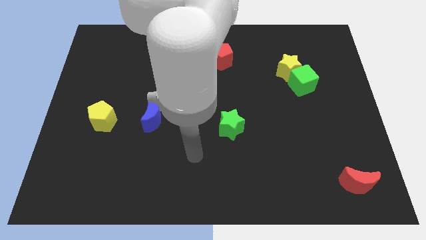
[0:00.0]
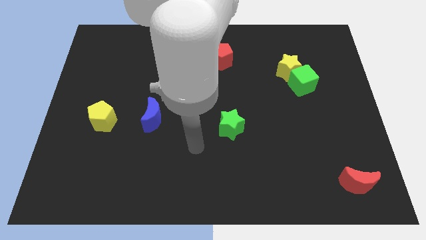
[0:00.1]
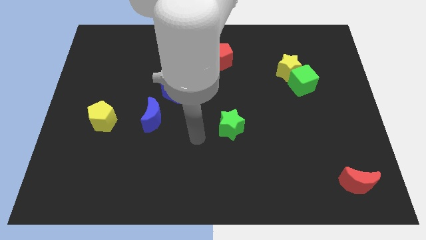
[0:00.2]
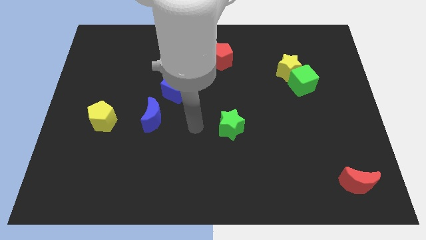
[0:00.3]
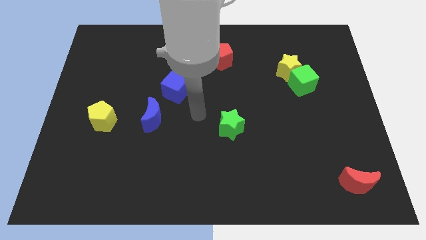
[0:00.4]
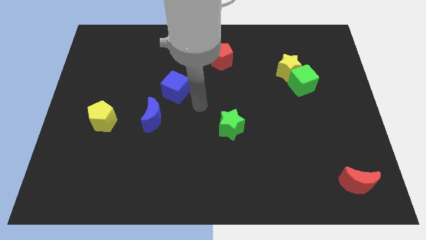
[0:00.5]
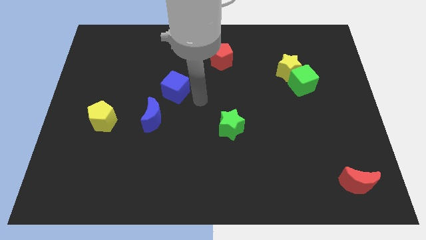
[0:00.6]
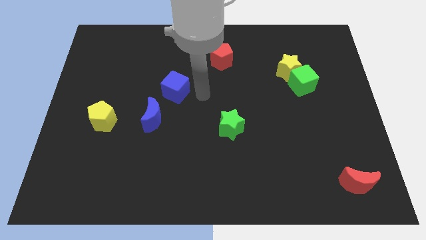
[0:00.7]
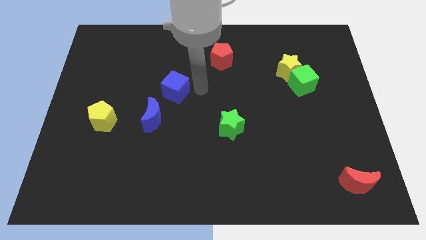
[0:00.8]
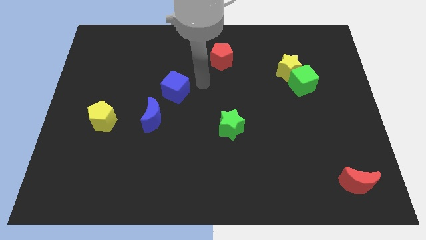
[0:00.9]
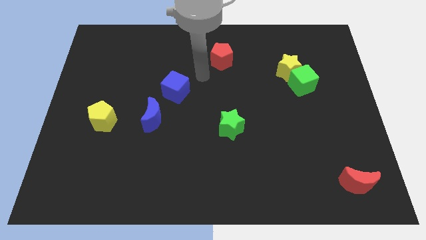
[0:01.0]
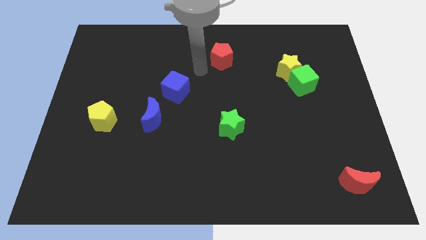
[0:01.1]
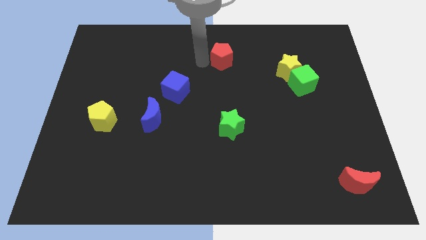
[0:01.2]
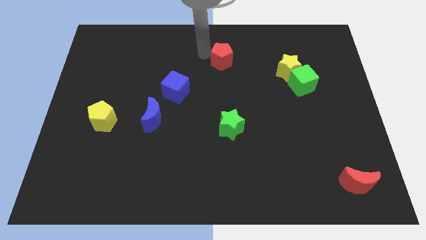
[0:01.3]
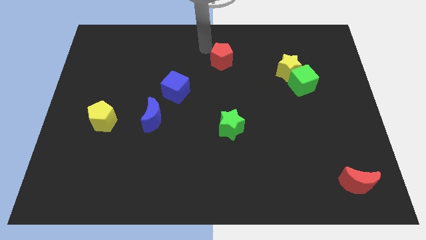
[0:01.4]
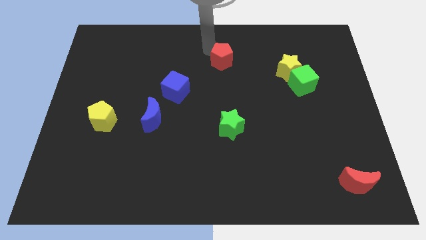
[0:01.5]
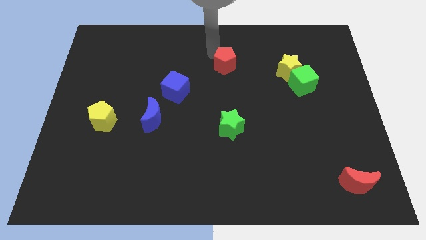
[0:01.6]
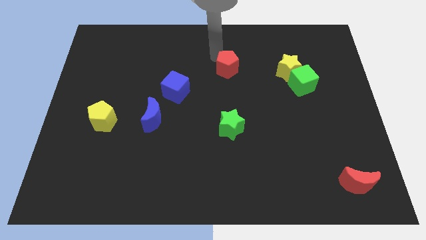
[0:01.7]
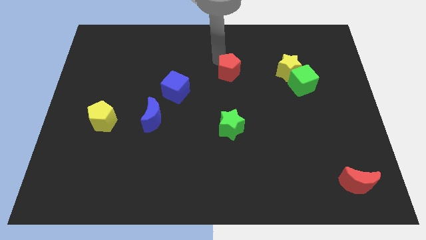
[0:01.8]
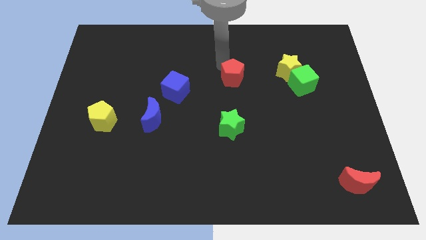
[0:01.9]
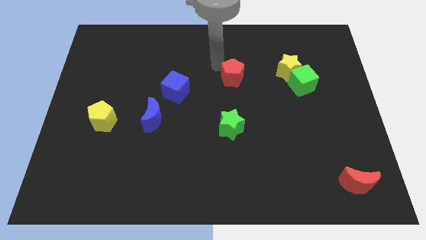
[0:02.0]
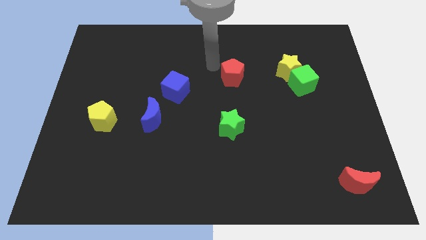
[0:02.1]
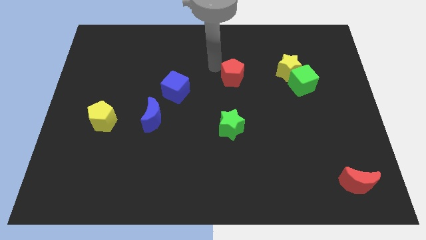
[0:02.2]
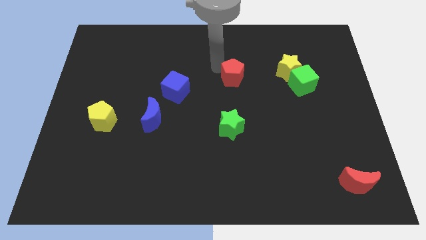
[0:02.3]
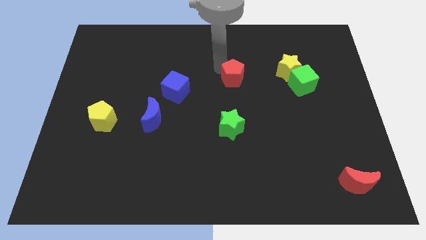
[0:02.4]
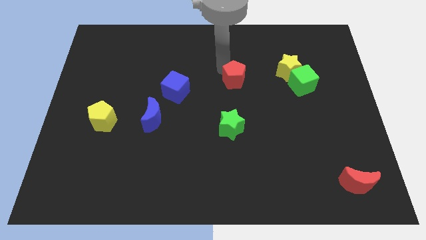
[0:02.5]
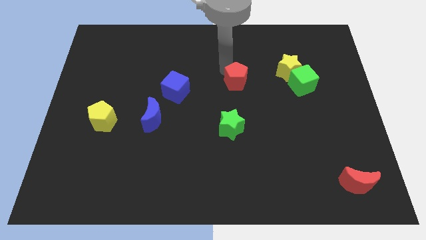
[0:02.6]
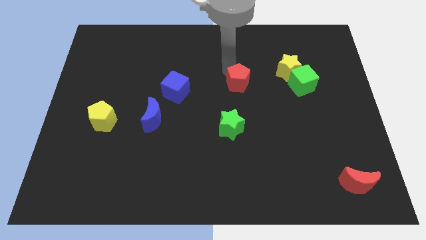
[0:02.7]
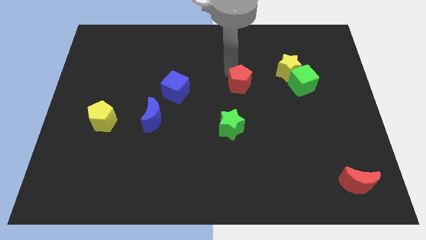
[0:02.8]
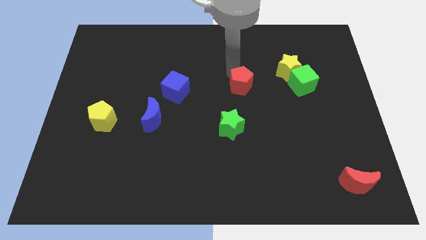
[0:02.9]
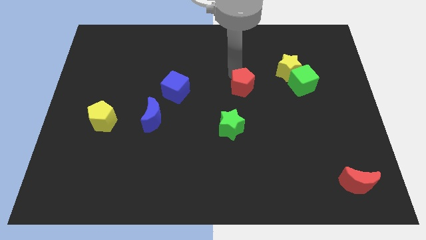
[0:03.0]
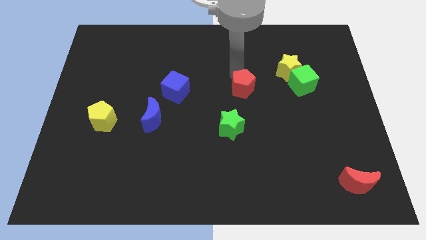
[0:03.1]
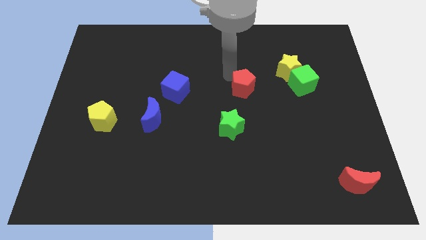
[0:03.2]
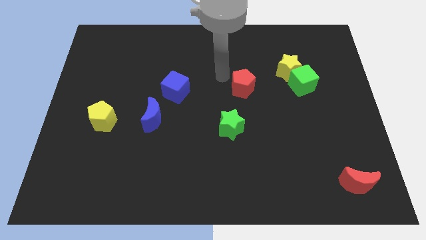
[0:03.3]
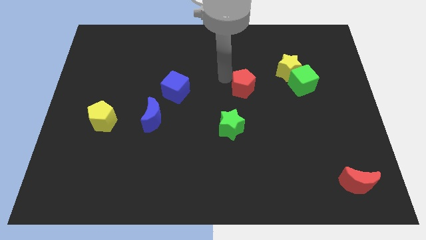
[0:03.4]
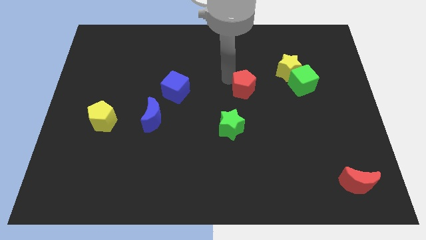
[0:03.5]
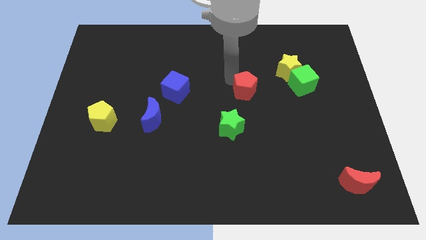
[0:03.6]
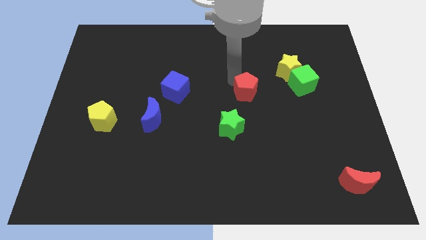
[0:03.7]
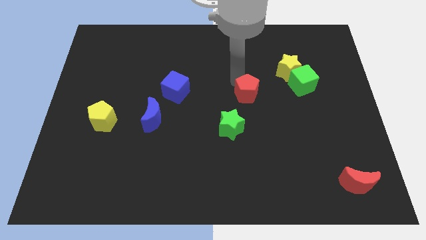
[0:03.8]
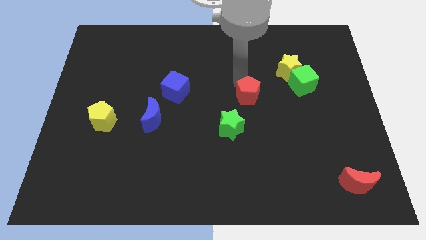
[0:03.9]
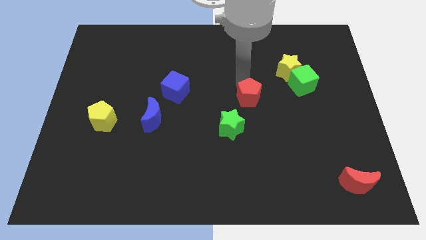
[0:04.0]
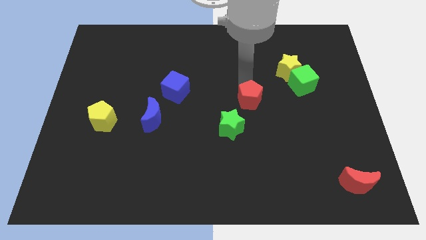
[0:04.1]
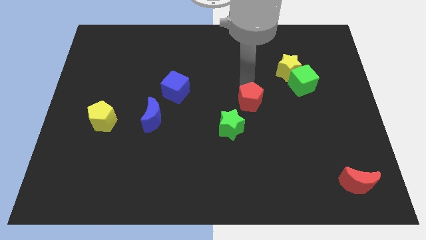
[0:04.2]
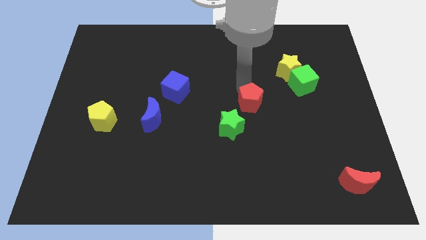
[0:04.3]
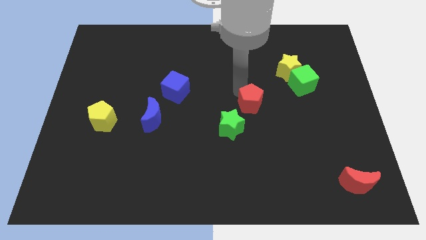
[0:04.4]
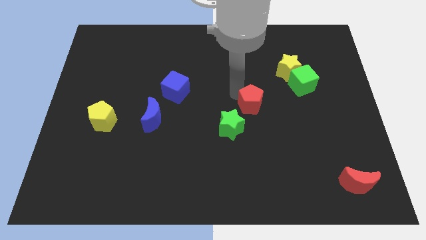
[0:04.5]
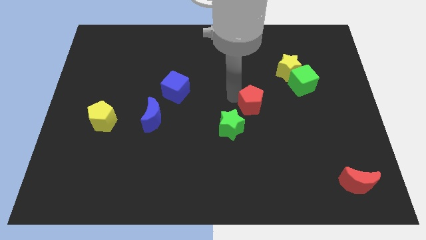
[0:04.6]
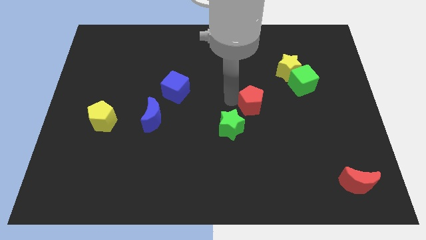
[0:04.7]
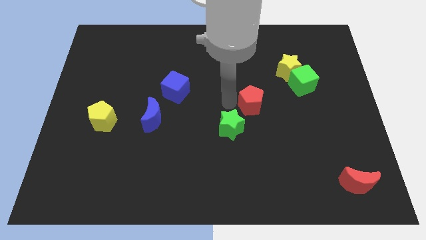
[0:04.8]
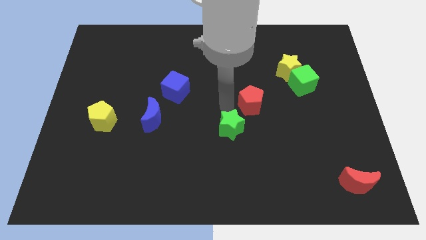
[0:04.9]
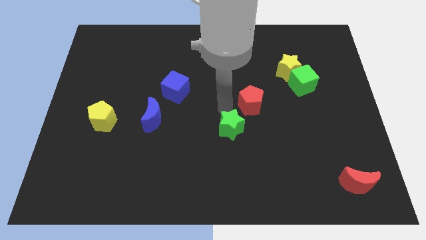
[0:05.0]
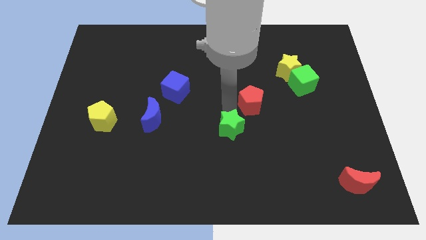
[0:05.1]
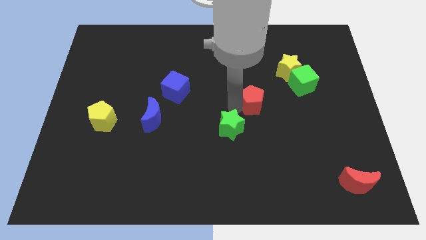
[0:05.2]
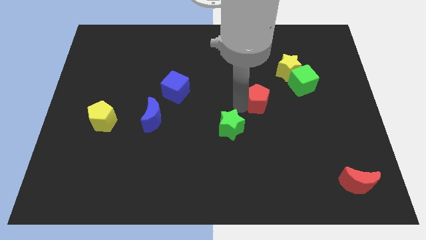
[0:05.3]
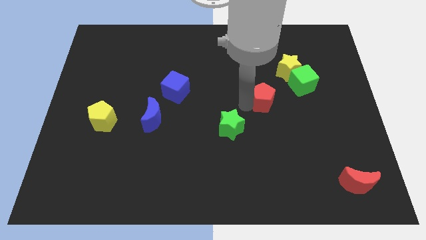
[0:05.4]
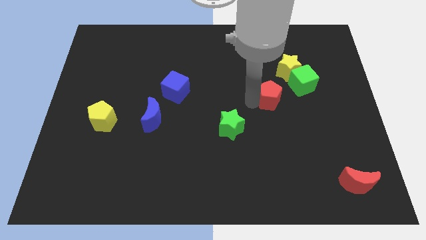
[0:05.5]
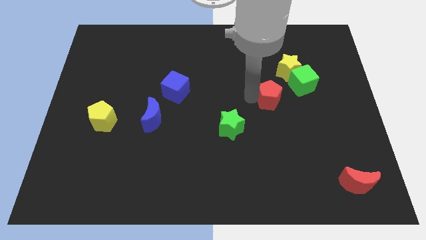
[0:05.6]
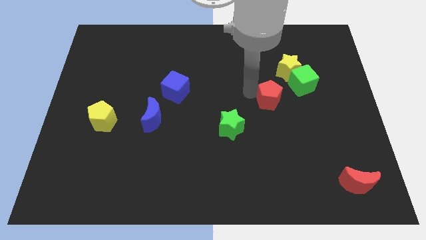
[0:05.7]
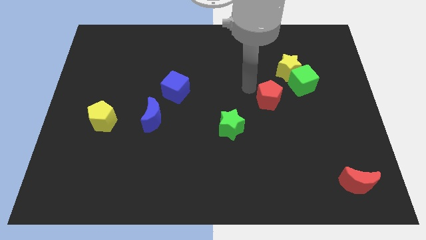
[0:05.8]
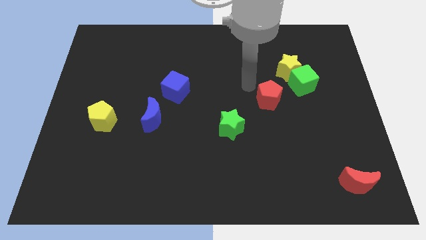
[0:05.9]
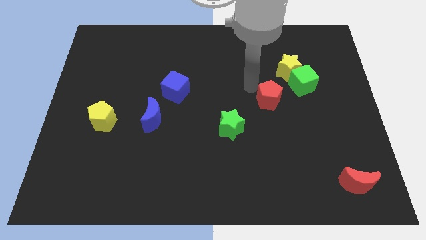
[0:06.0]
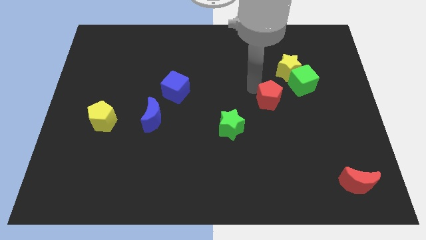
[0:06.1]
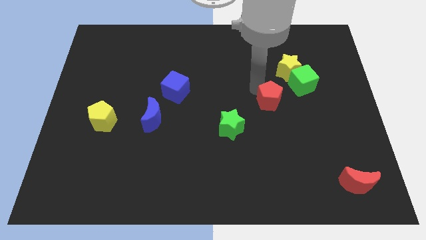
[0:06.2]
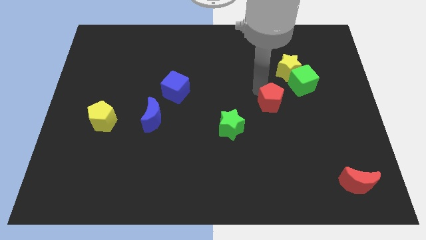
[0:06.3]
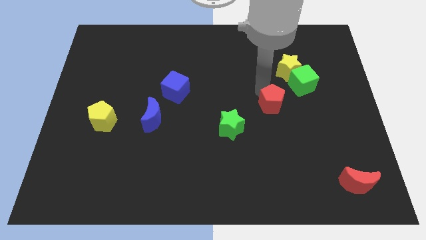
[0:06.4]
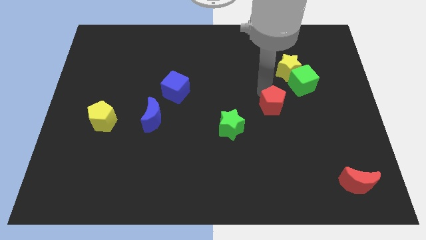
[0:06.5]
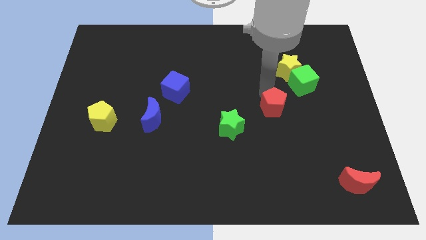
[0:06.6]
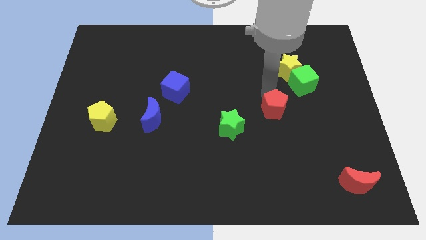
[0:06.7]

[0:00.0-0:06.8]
move the red pentagon diagonally downwards and to the right

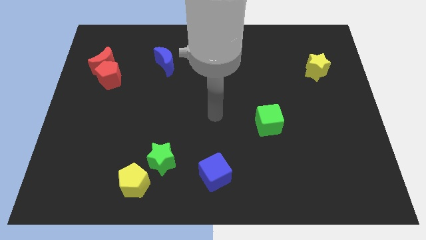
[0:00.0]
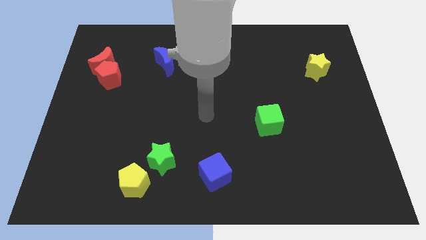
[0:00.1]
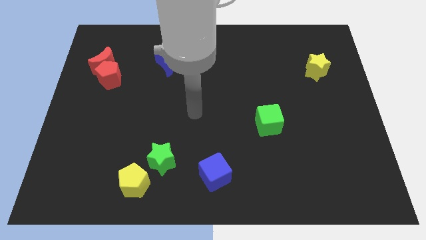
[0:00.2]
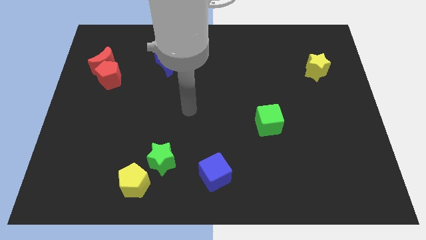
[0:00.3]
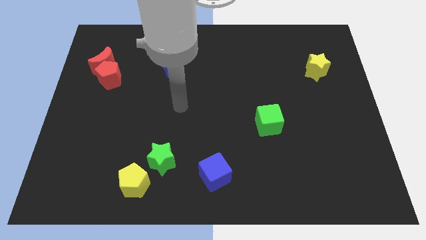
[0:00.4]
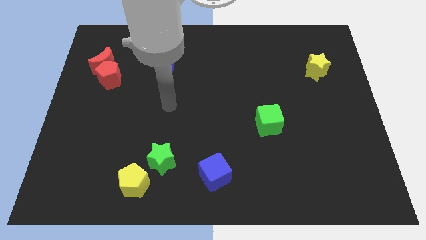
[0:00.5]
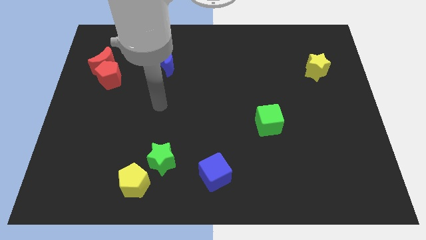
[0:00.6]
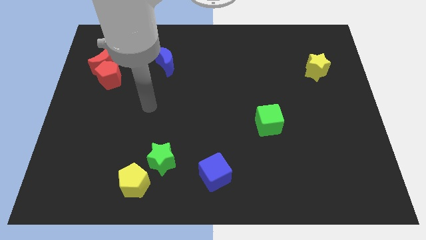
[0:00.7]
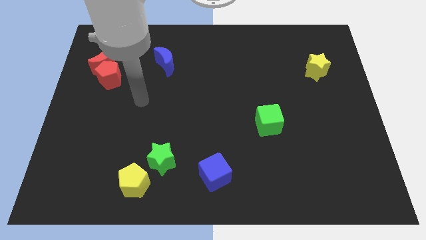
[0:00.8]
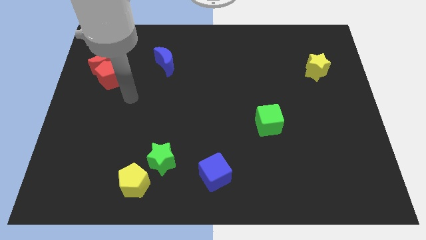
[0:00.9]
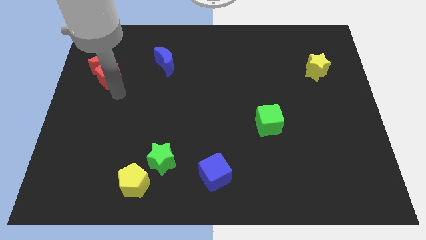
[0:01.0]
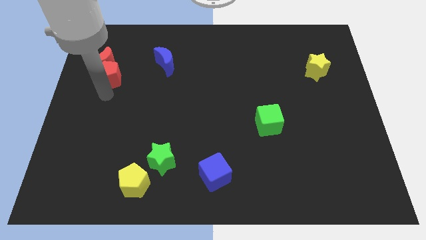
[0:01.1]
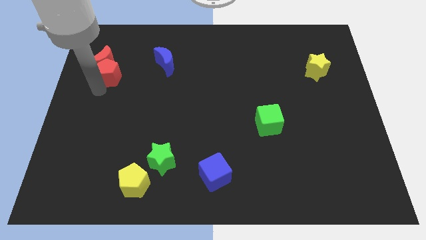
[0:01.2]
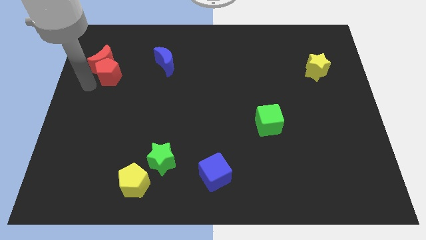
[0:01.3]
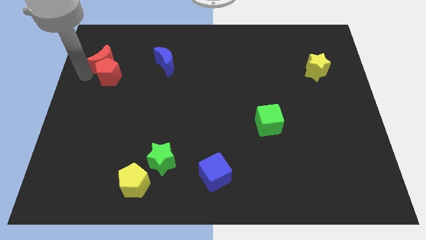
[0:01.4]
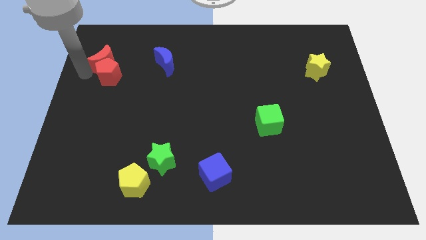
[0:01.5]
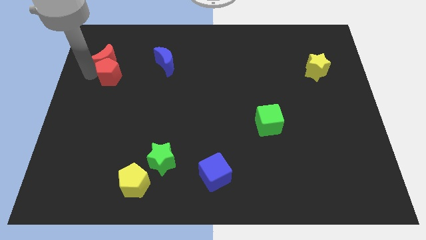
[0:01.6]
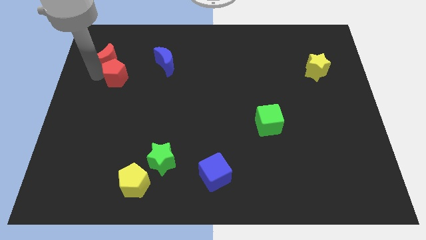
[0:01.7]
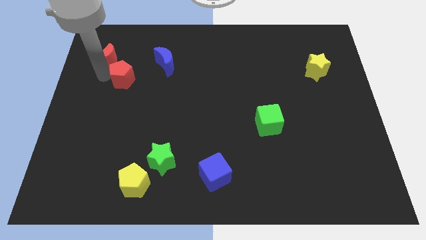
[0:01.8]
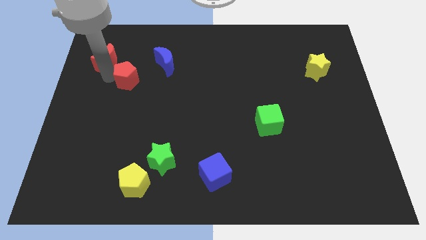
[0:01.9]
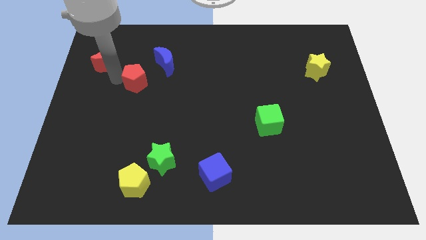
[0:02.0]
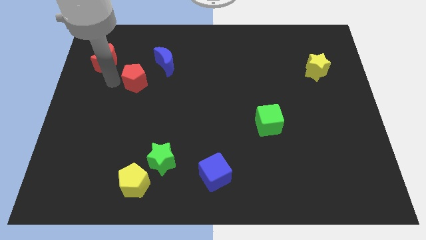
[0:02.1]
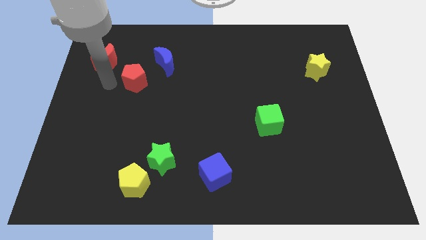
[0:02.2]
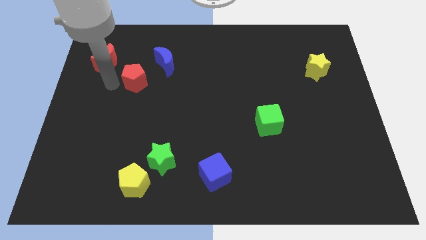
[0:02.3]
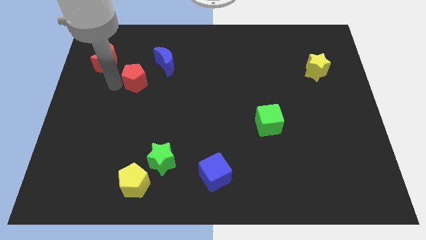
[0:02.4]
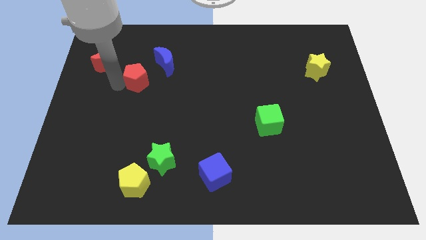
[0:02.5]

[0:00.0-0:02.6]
push the red pentagon to the right a little
